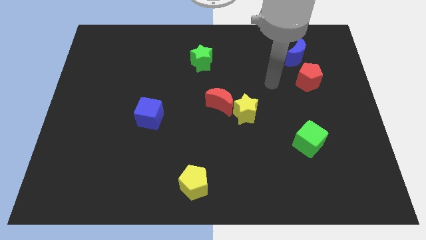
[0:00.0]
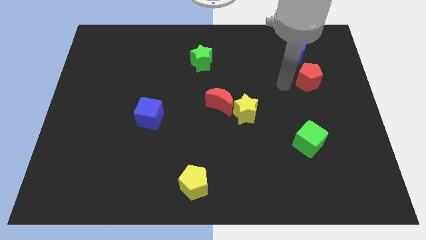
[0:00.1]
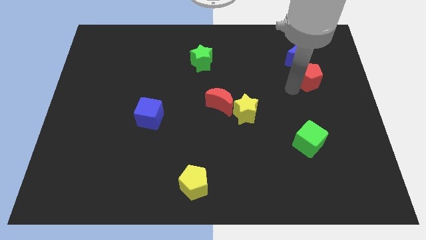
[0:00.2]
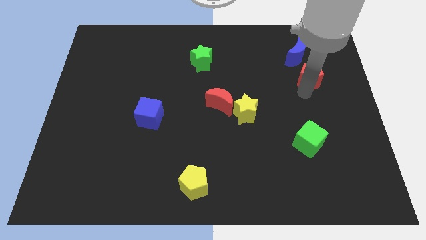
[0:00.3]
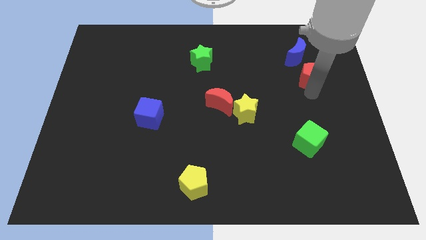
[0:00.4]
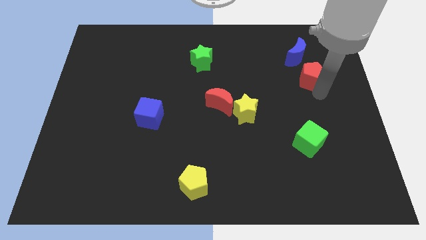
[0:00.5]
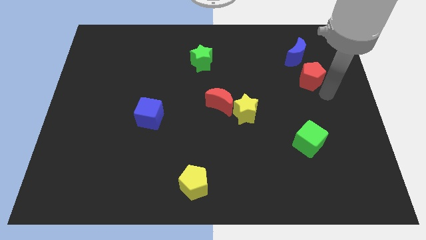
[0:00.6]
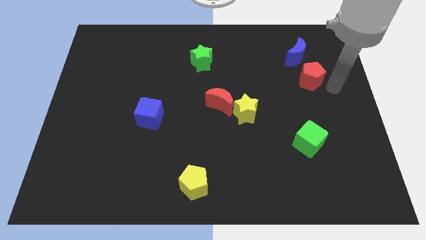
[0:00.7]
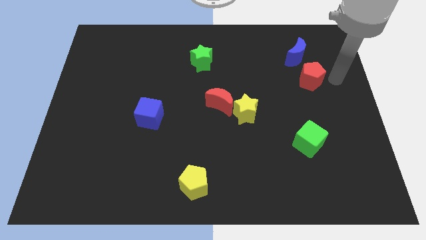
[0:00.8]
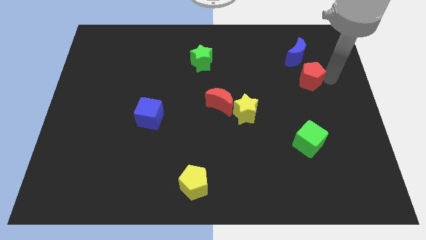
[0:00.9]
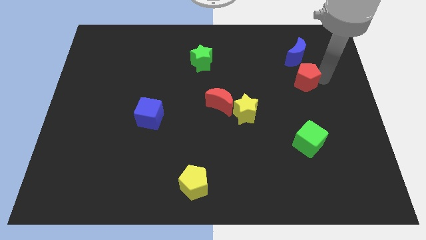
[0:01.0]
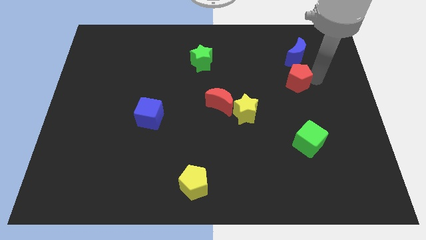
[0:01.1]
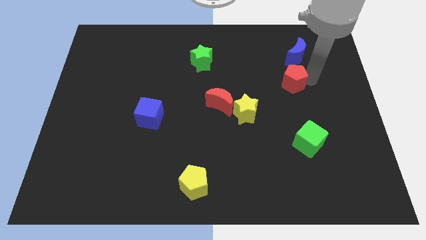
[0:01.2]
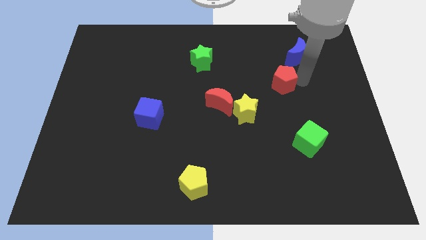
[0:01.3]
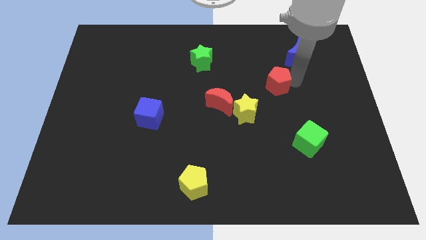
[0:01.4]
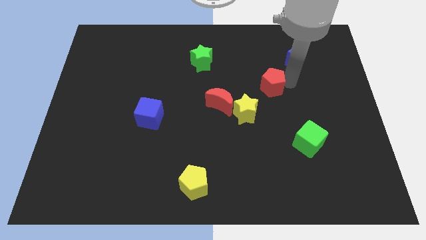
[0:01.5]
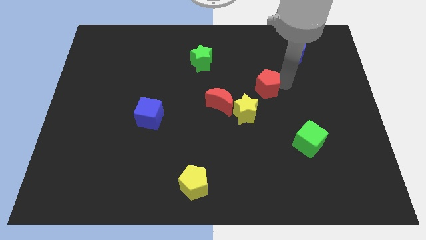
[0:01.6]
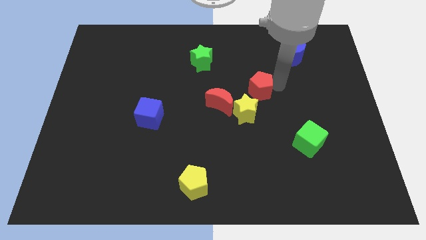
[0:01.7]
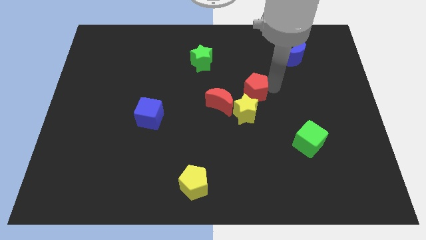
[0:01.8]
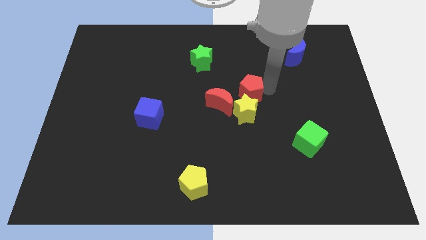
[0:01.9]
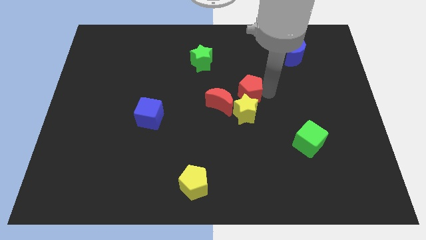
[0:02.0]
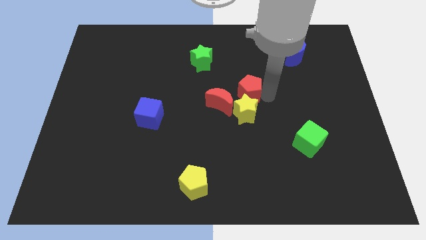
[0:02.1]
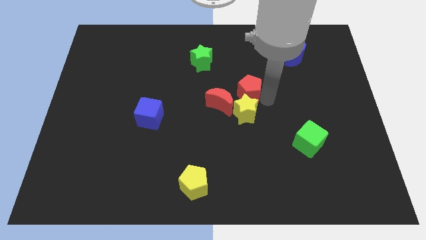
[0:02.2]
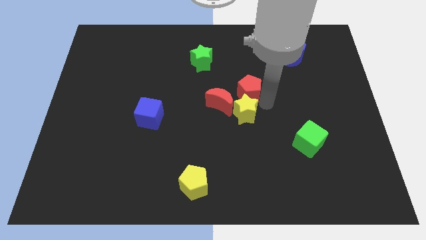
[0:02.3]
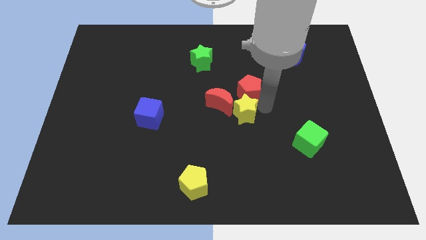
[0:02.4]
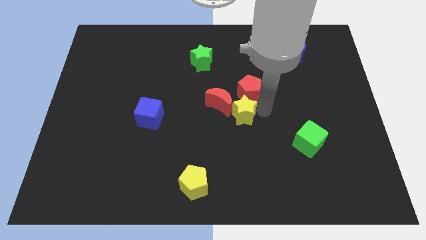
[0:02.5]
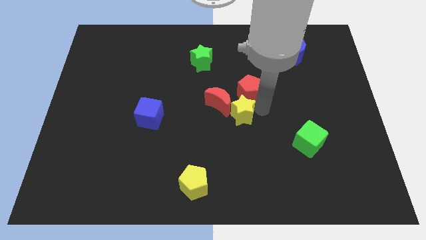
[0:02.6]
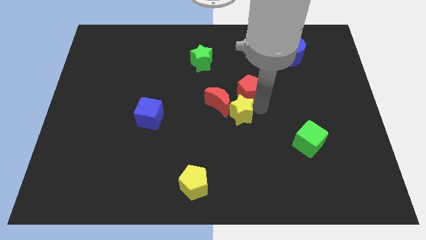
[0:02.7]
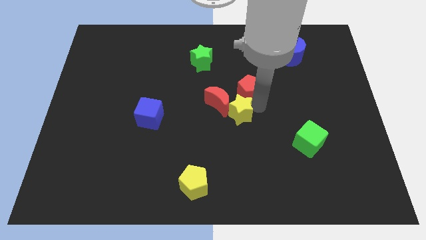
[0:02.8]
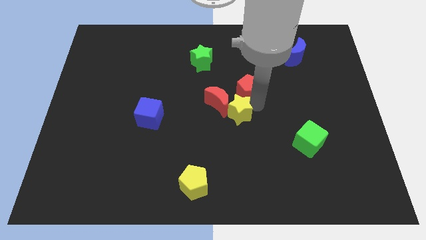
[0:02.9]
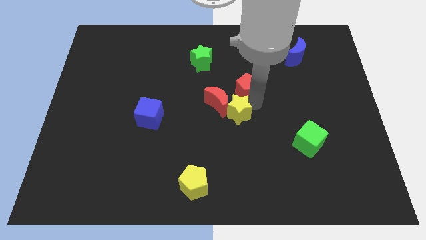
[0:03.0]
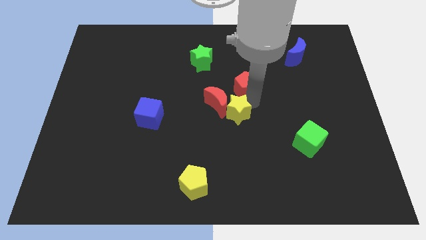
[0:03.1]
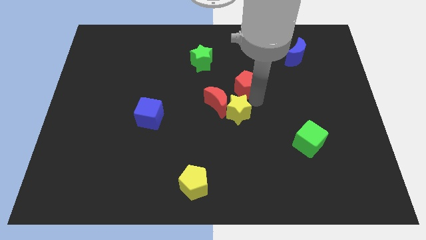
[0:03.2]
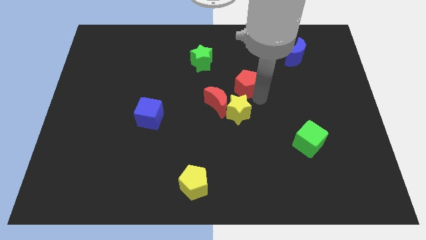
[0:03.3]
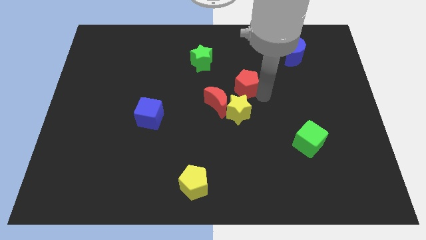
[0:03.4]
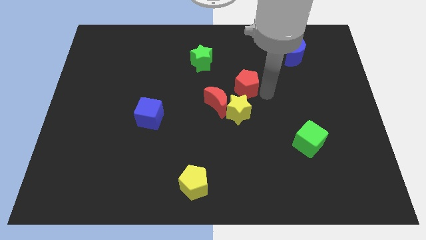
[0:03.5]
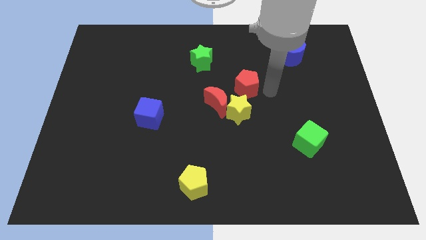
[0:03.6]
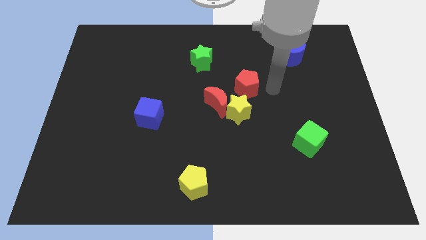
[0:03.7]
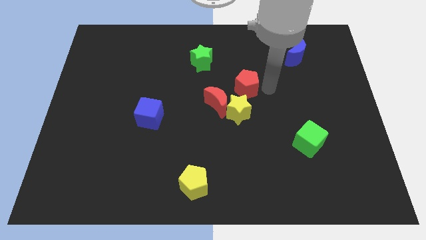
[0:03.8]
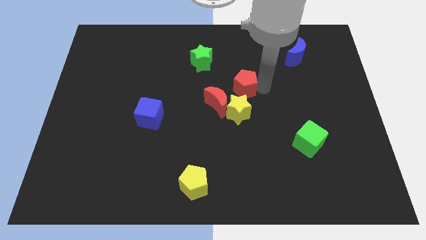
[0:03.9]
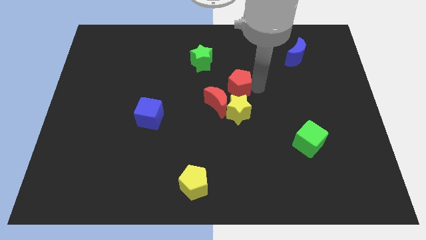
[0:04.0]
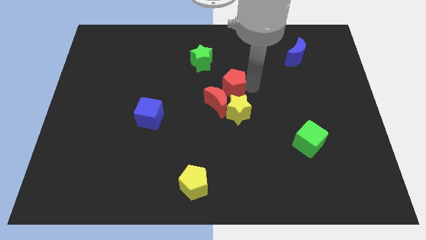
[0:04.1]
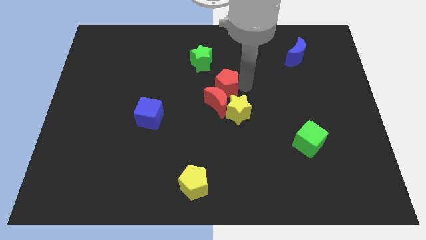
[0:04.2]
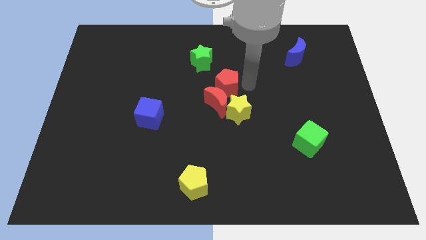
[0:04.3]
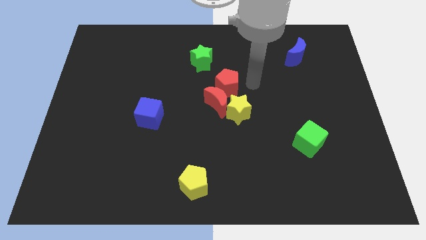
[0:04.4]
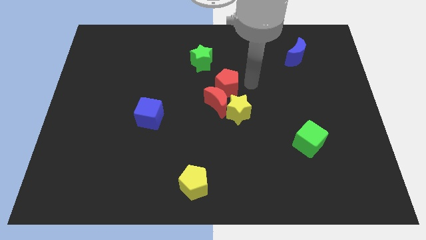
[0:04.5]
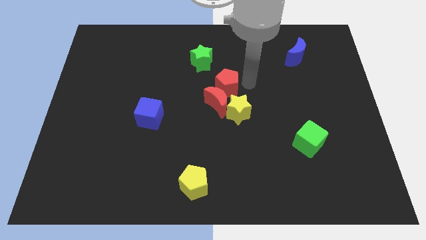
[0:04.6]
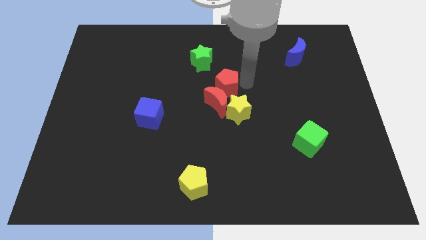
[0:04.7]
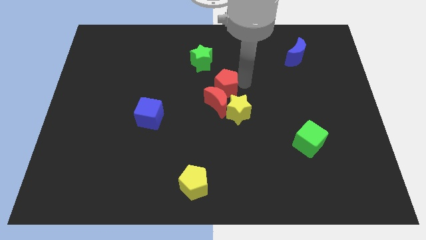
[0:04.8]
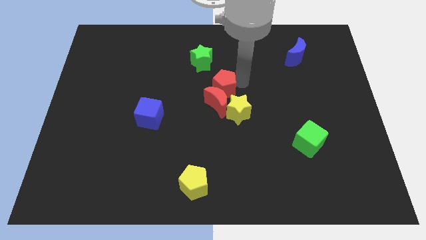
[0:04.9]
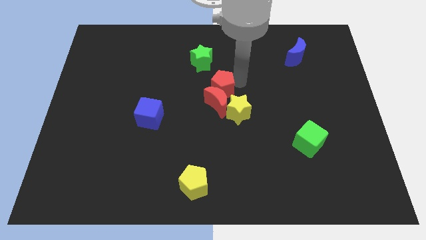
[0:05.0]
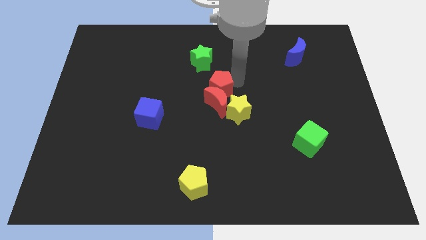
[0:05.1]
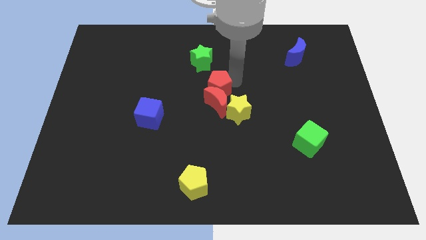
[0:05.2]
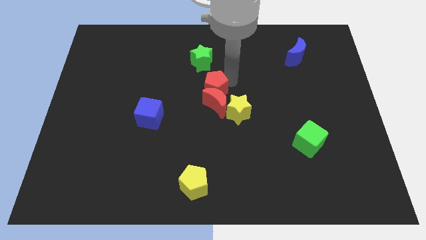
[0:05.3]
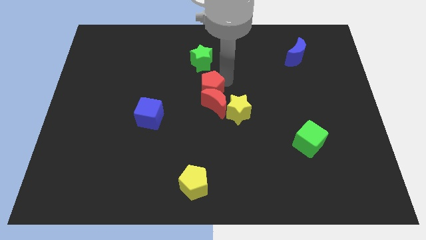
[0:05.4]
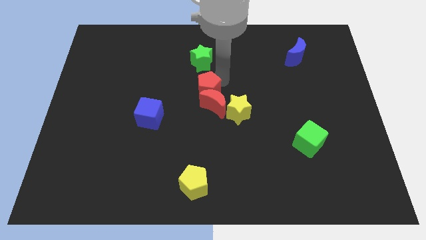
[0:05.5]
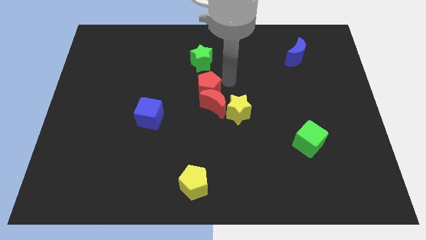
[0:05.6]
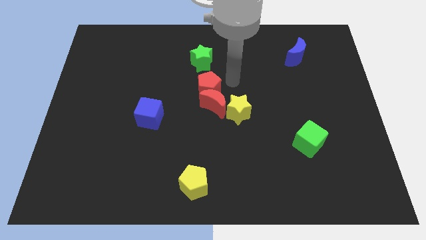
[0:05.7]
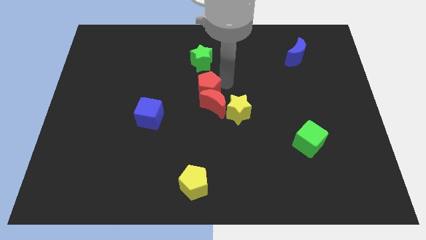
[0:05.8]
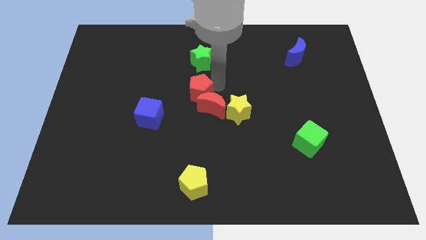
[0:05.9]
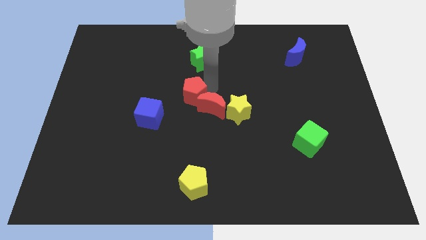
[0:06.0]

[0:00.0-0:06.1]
put the red pentagon diagonally up and to the right of the blue cube

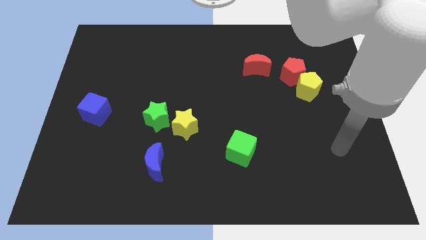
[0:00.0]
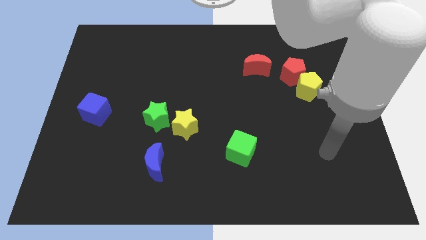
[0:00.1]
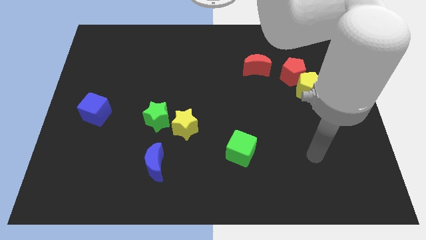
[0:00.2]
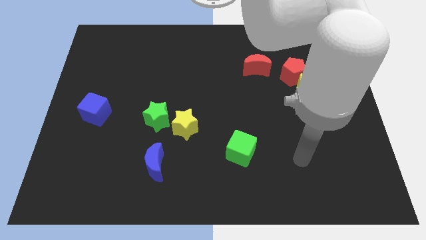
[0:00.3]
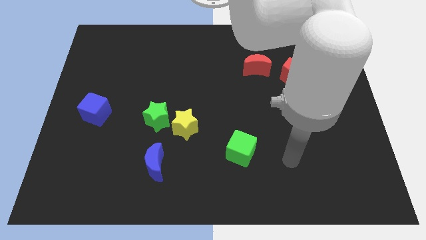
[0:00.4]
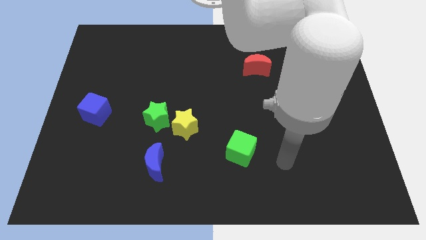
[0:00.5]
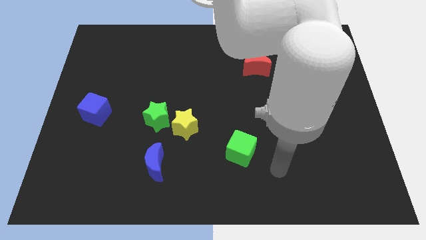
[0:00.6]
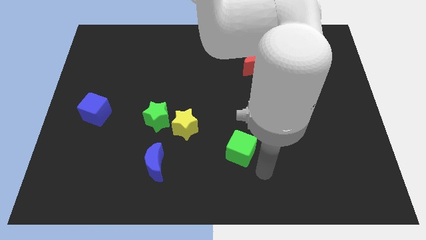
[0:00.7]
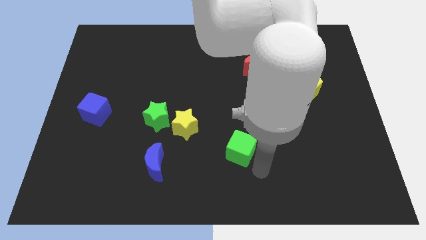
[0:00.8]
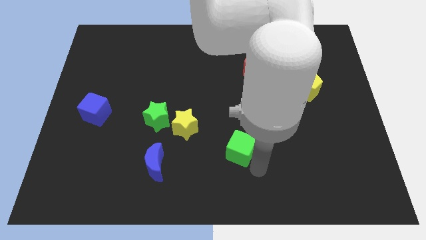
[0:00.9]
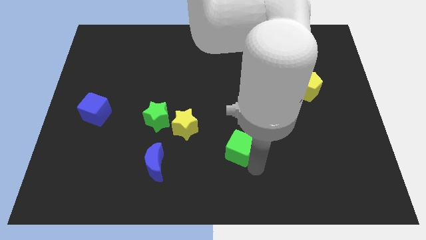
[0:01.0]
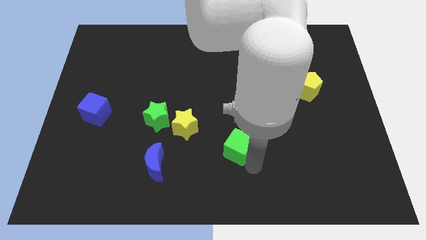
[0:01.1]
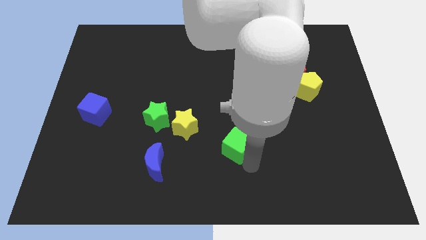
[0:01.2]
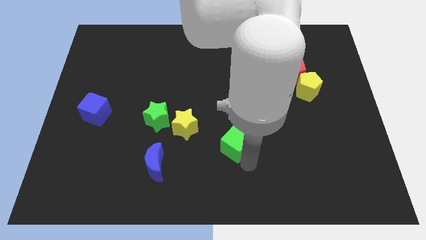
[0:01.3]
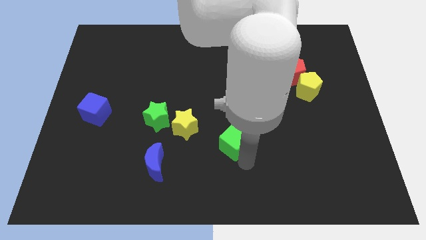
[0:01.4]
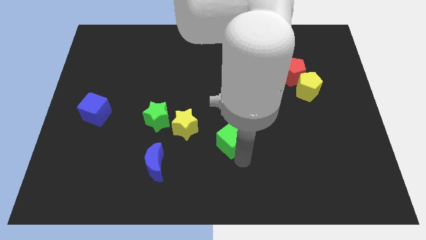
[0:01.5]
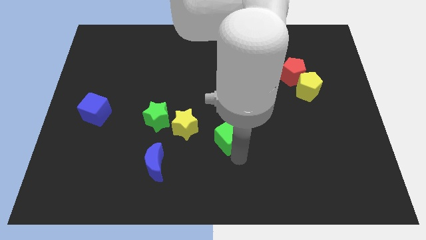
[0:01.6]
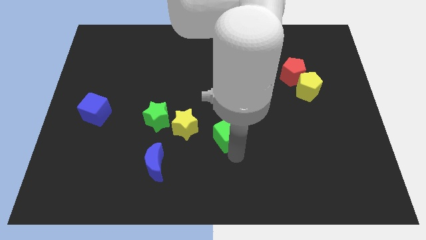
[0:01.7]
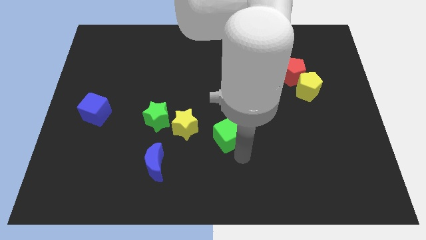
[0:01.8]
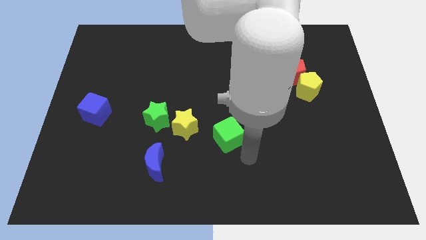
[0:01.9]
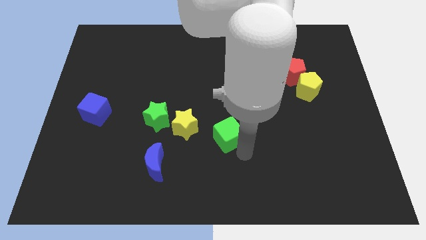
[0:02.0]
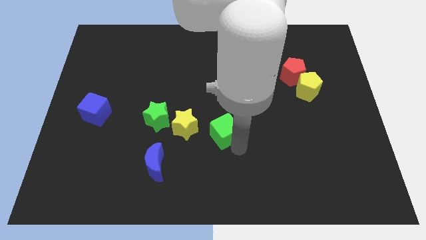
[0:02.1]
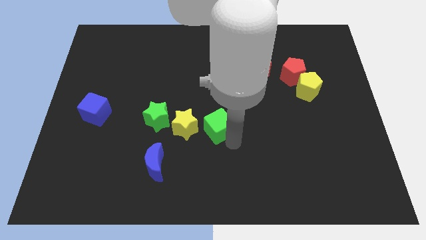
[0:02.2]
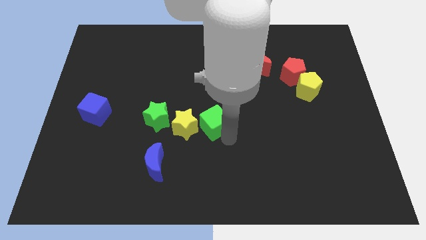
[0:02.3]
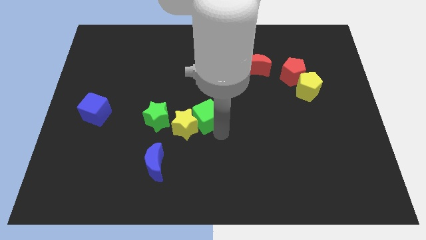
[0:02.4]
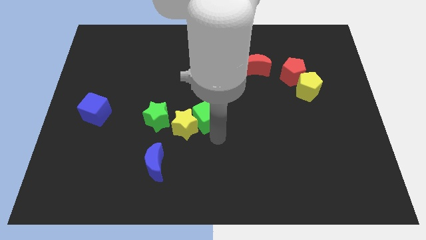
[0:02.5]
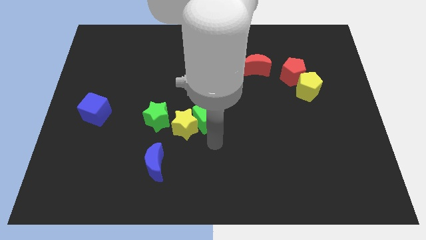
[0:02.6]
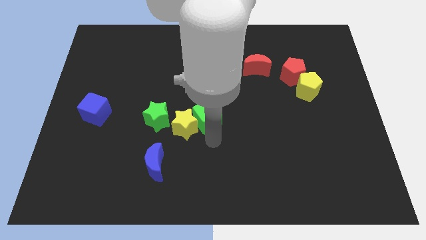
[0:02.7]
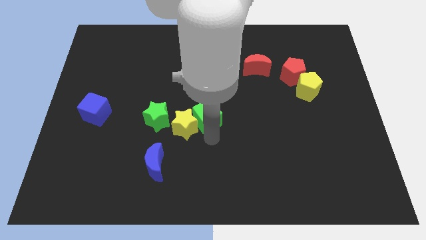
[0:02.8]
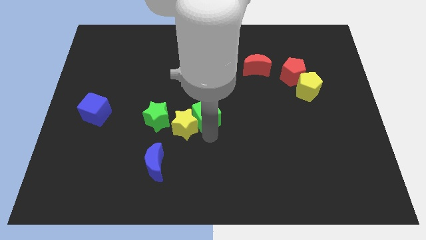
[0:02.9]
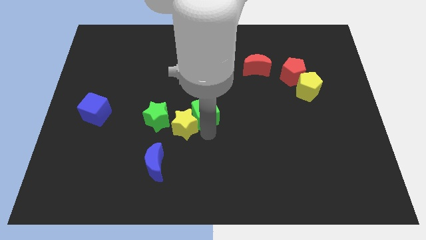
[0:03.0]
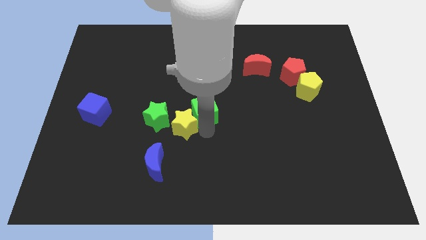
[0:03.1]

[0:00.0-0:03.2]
put the green cube to the top side of the yellow star
